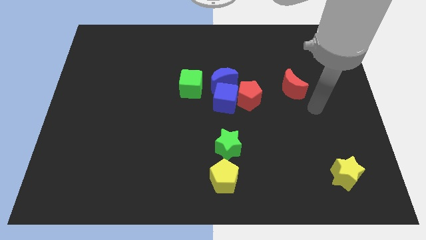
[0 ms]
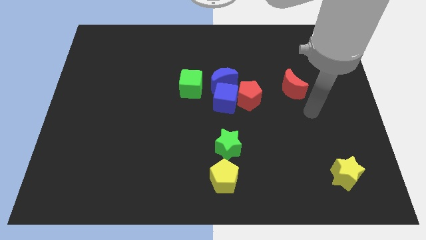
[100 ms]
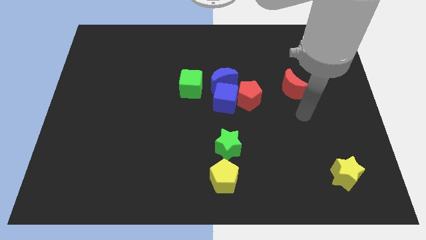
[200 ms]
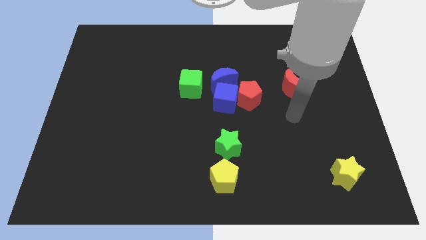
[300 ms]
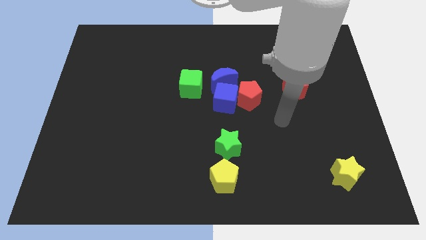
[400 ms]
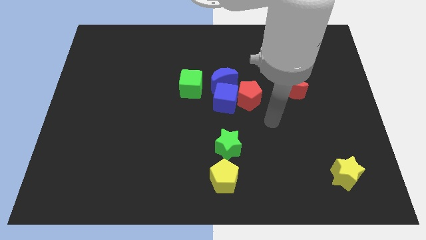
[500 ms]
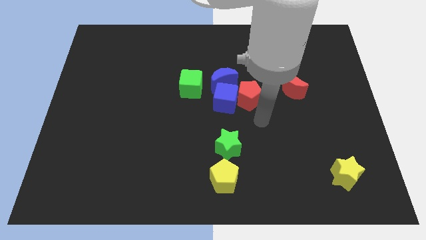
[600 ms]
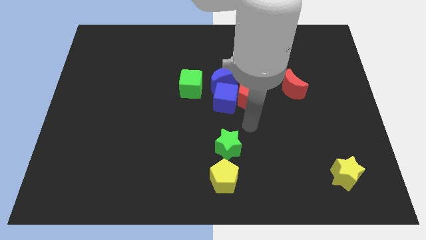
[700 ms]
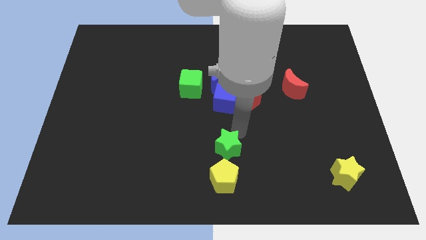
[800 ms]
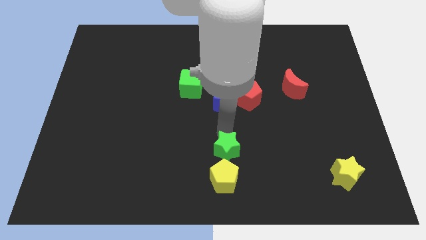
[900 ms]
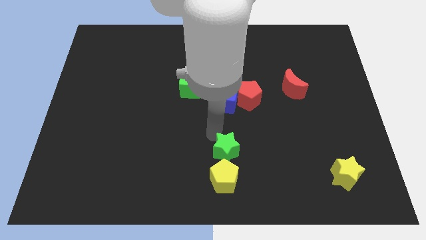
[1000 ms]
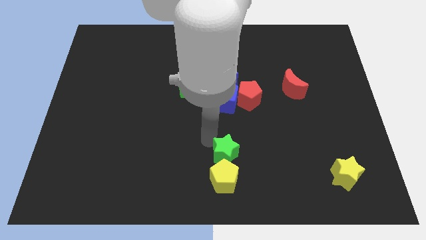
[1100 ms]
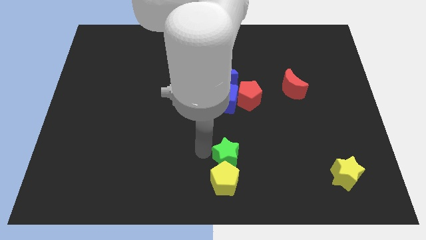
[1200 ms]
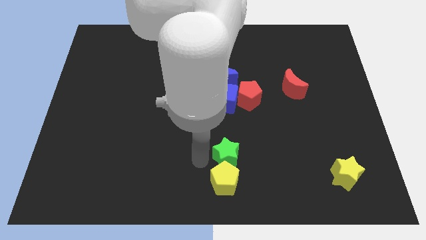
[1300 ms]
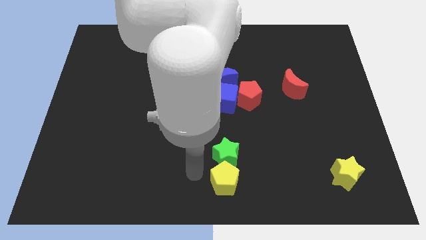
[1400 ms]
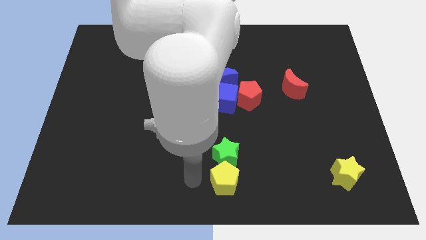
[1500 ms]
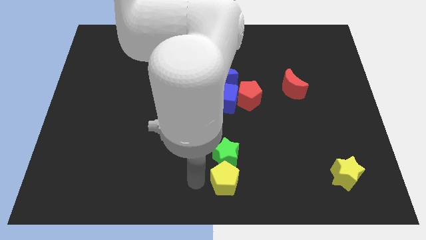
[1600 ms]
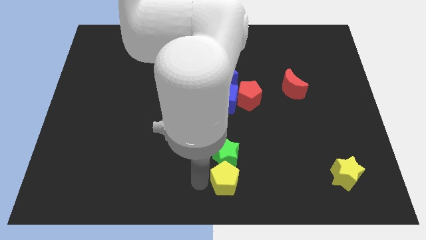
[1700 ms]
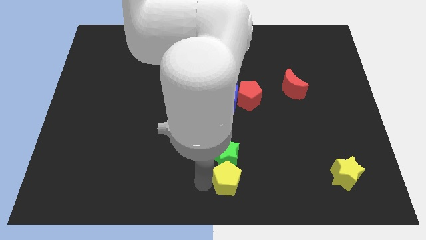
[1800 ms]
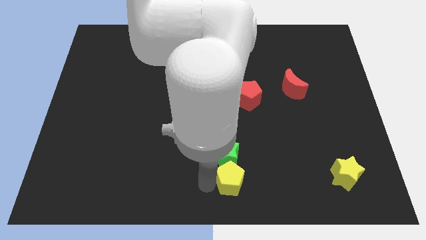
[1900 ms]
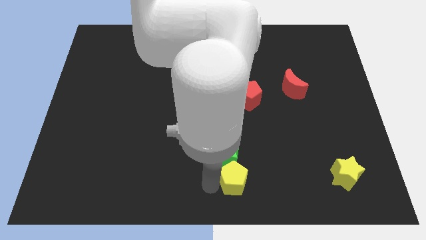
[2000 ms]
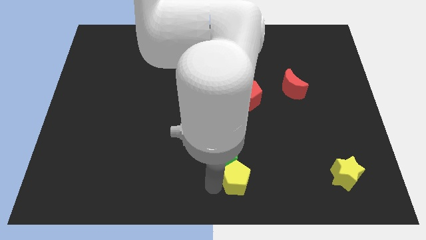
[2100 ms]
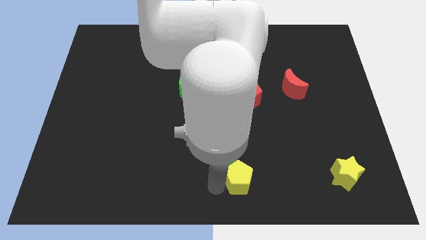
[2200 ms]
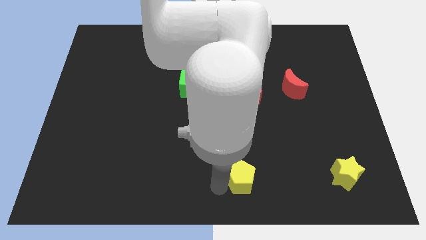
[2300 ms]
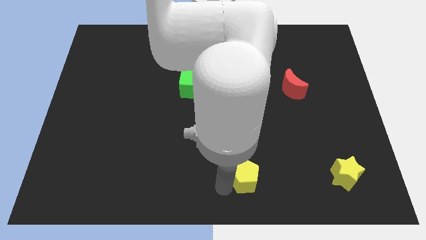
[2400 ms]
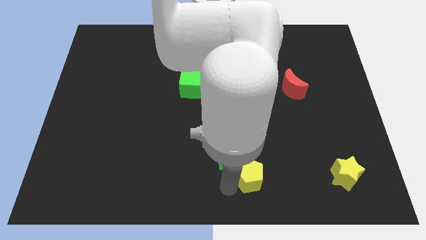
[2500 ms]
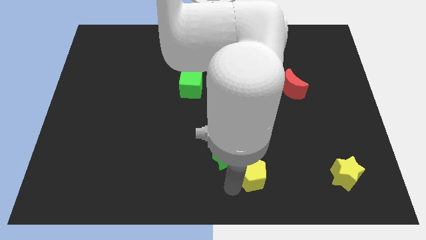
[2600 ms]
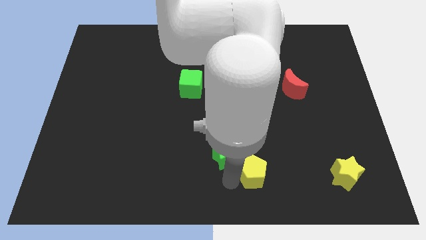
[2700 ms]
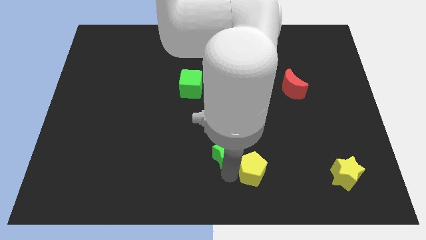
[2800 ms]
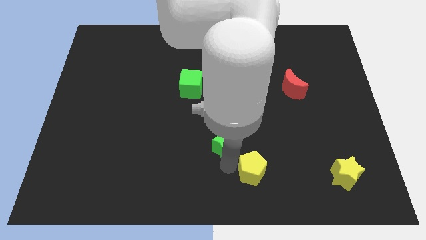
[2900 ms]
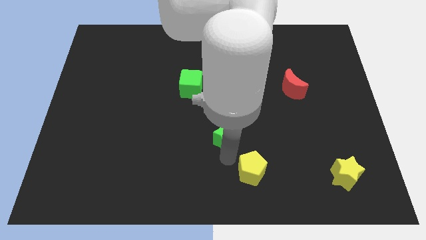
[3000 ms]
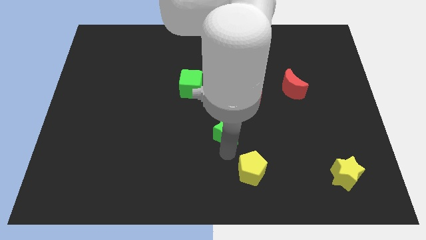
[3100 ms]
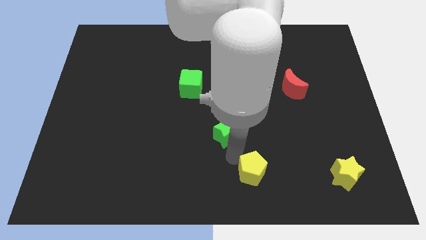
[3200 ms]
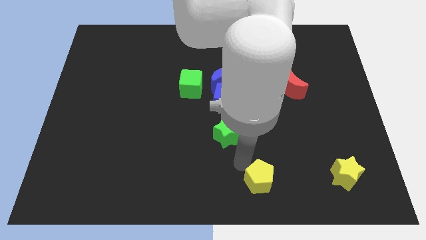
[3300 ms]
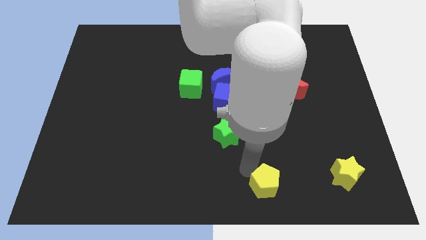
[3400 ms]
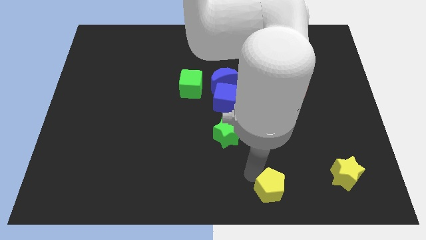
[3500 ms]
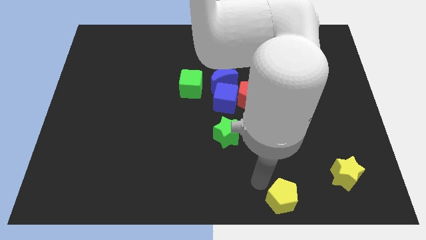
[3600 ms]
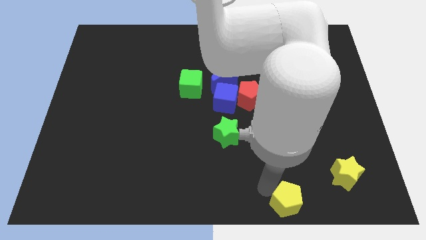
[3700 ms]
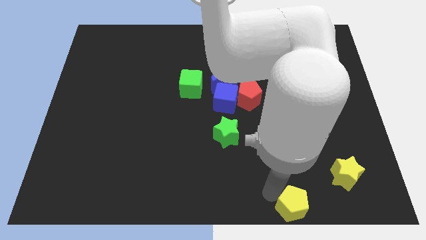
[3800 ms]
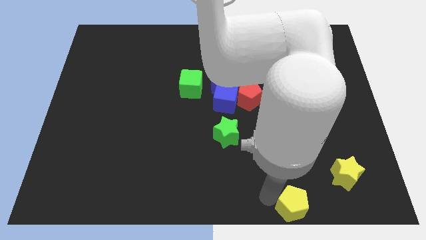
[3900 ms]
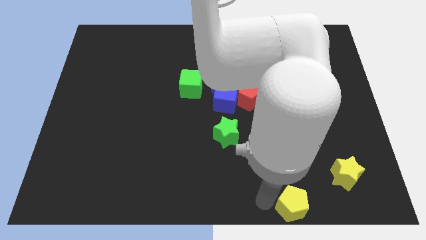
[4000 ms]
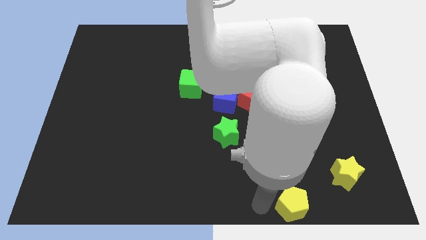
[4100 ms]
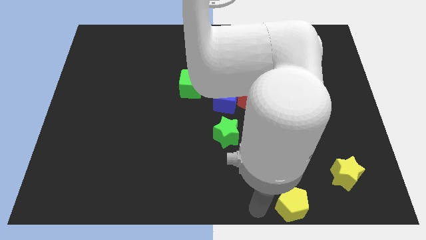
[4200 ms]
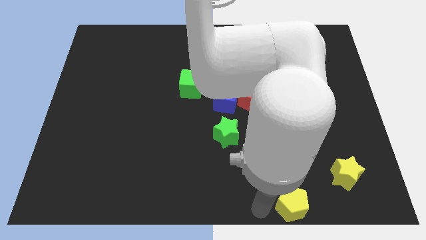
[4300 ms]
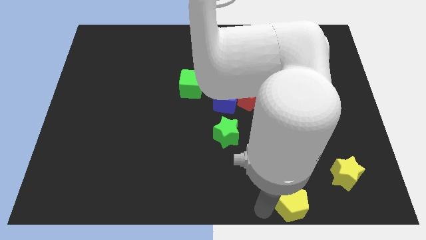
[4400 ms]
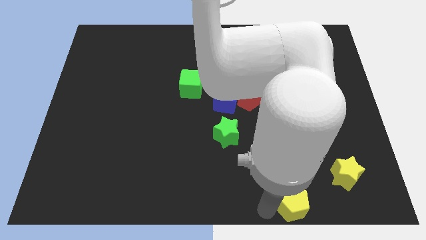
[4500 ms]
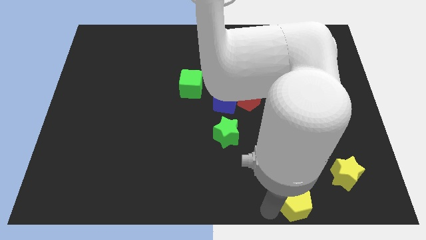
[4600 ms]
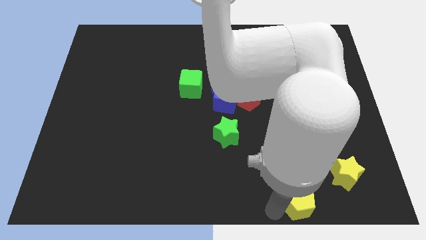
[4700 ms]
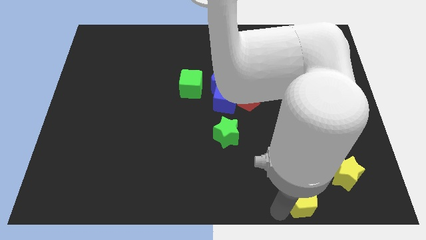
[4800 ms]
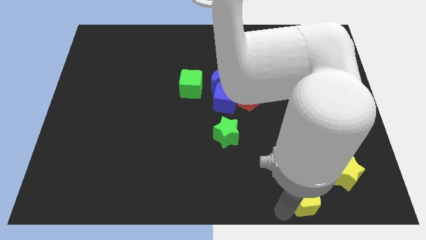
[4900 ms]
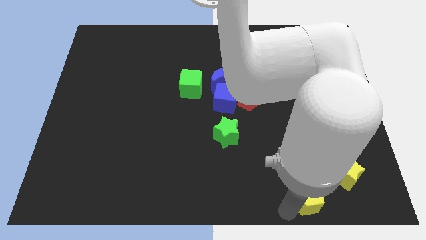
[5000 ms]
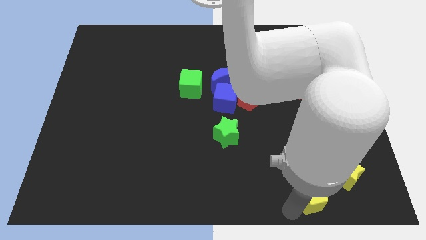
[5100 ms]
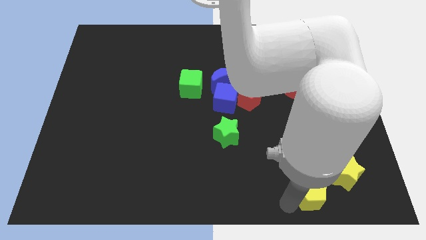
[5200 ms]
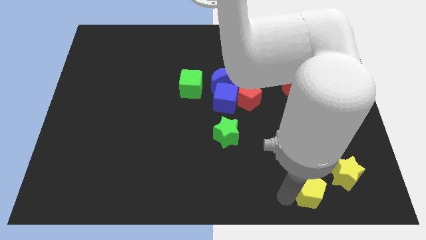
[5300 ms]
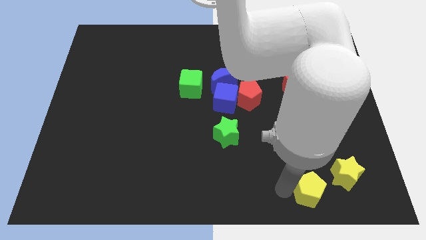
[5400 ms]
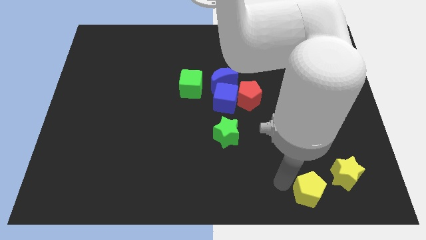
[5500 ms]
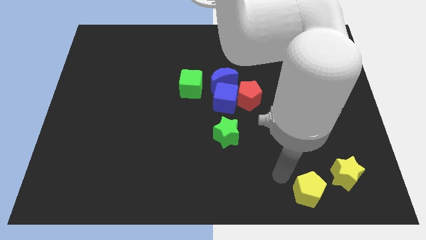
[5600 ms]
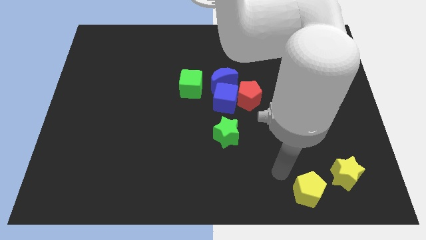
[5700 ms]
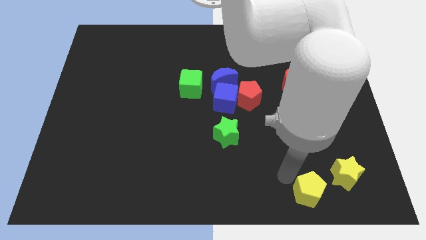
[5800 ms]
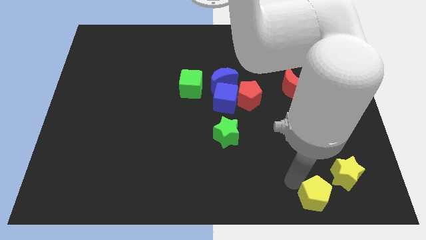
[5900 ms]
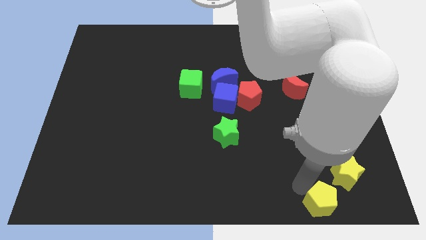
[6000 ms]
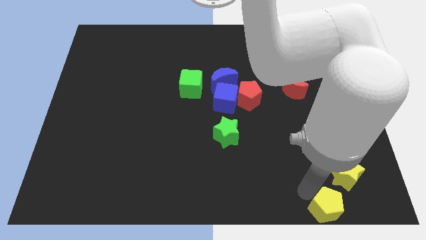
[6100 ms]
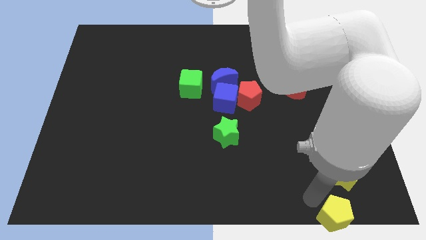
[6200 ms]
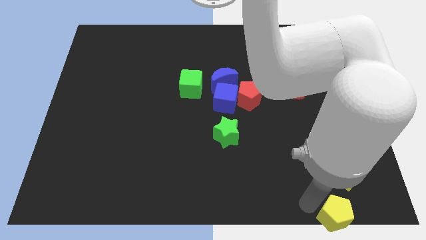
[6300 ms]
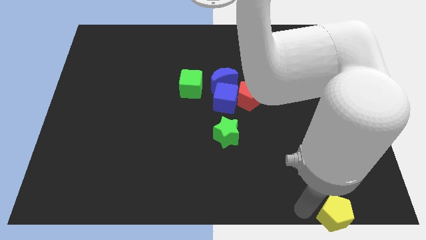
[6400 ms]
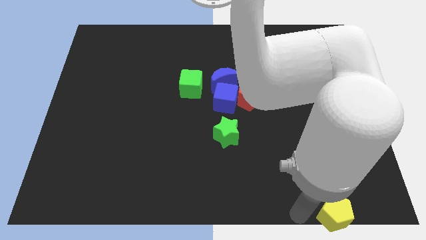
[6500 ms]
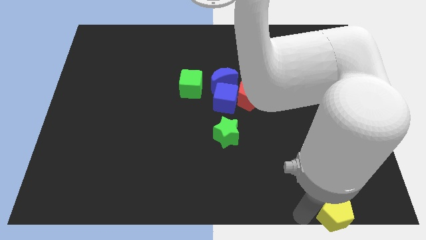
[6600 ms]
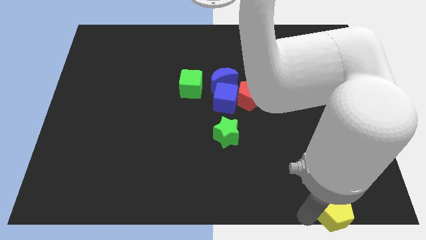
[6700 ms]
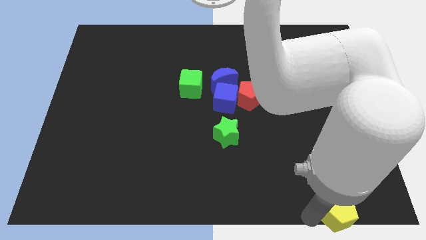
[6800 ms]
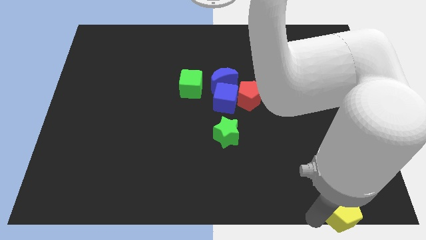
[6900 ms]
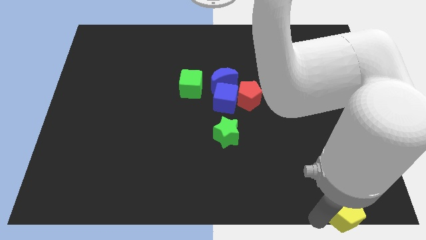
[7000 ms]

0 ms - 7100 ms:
push the yellow pentagon to the bottom right
